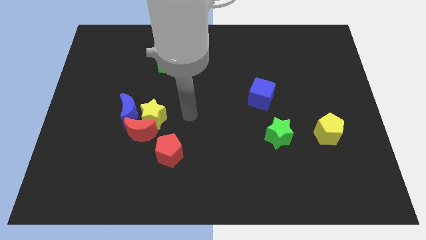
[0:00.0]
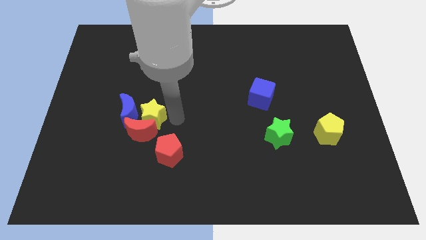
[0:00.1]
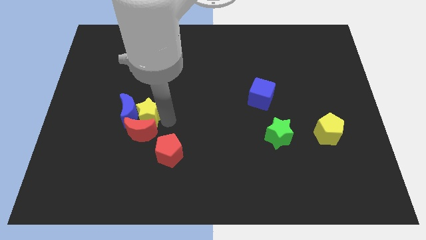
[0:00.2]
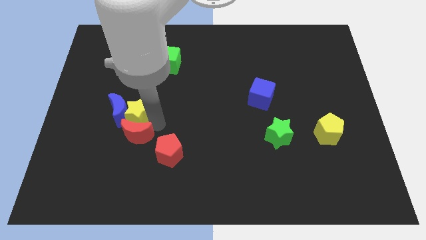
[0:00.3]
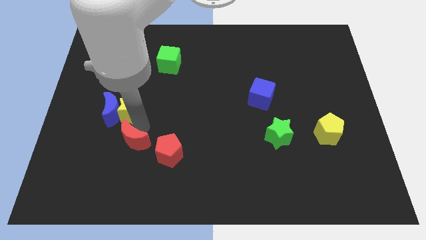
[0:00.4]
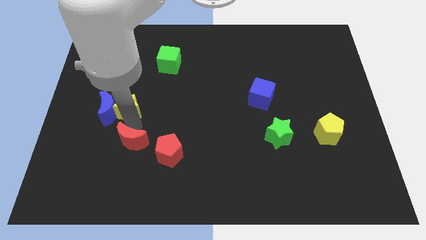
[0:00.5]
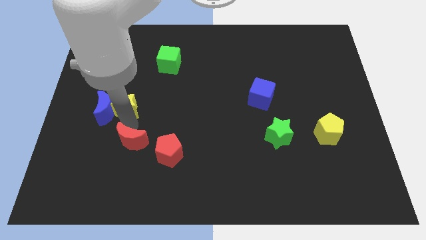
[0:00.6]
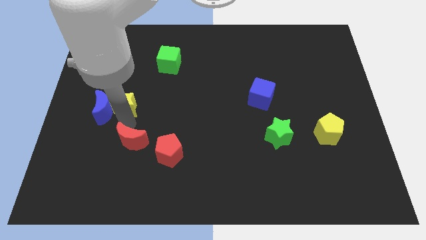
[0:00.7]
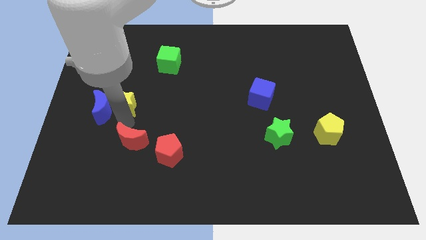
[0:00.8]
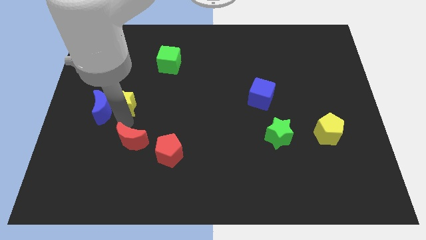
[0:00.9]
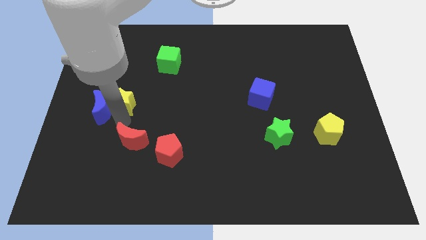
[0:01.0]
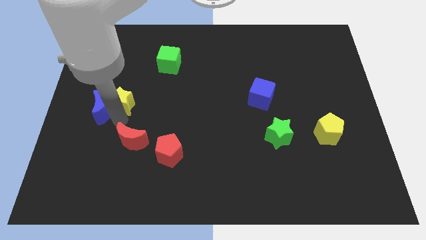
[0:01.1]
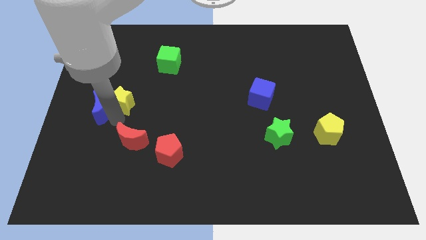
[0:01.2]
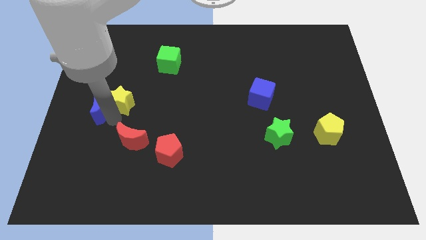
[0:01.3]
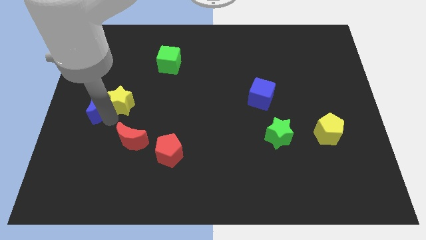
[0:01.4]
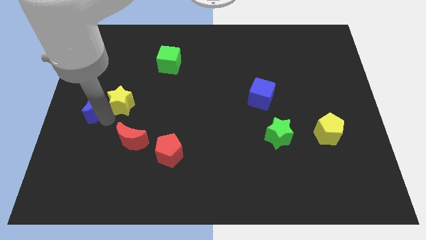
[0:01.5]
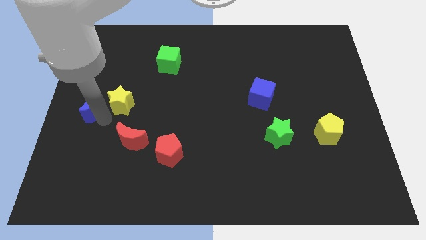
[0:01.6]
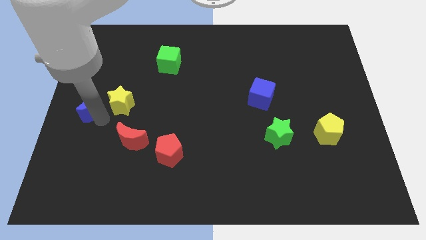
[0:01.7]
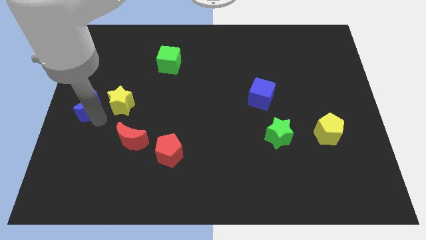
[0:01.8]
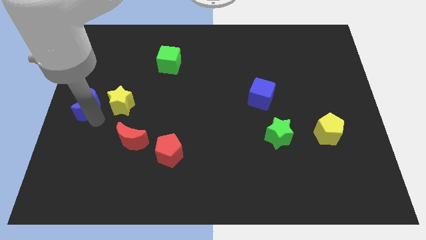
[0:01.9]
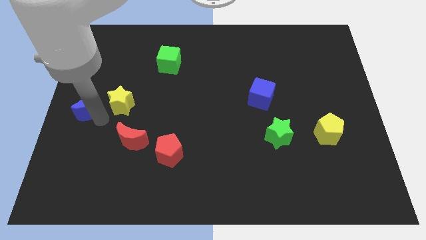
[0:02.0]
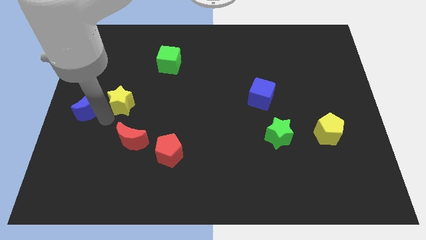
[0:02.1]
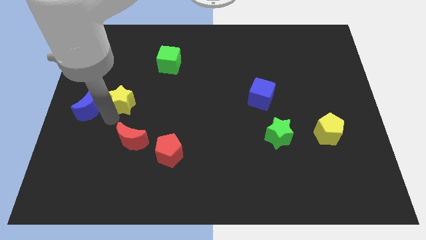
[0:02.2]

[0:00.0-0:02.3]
separate the blue moon from the yellow star and red moon

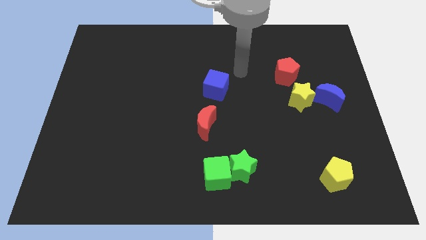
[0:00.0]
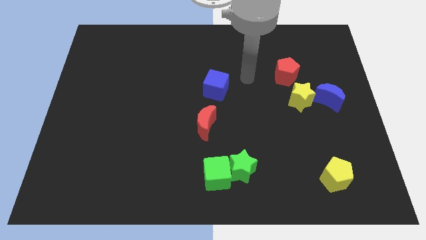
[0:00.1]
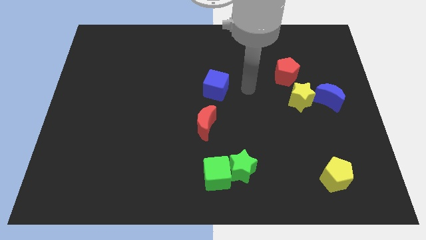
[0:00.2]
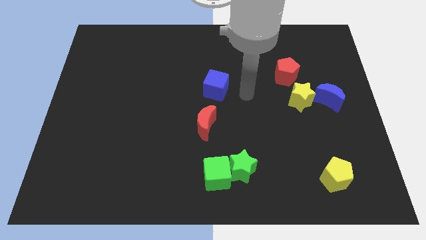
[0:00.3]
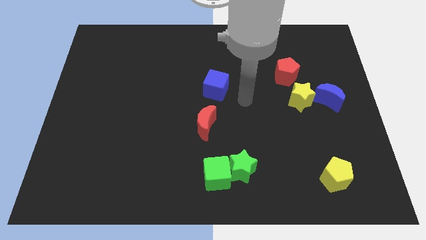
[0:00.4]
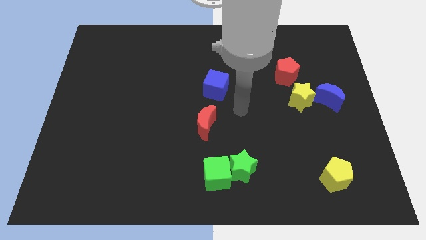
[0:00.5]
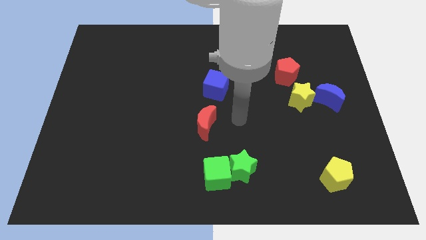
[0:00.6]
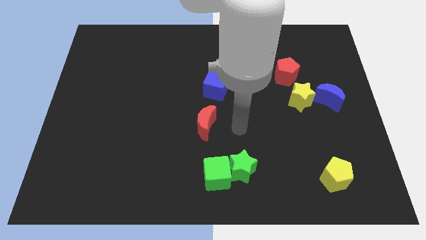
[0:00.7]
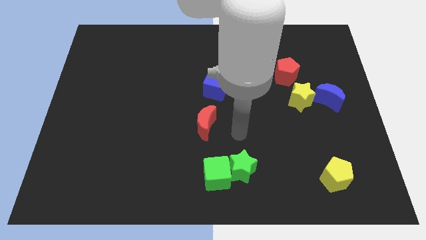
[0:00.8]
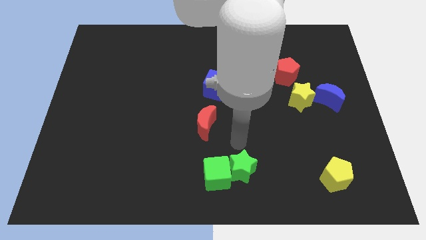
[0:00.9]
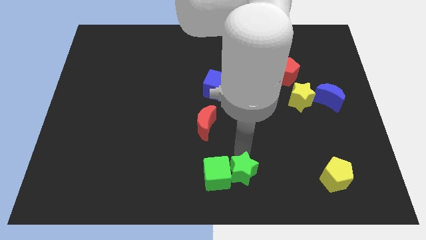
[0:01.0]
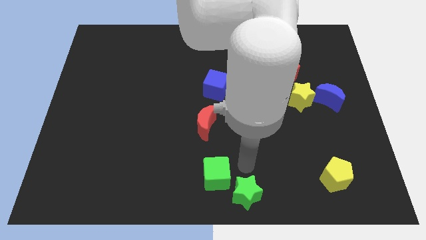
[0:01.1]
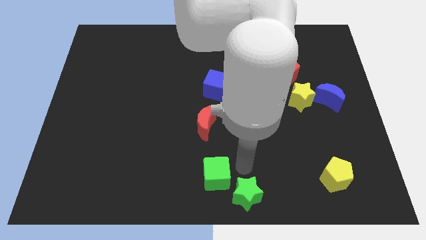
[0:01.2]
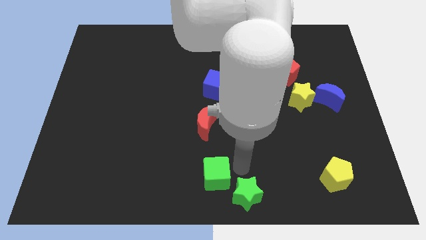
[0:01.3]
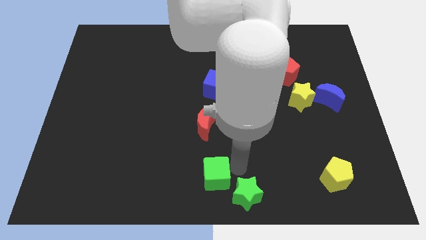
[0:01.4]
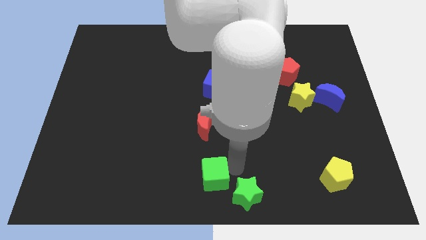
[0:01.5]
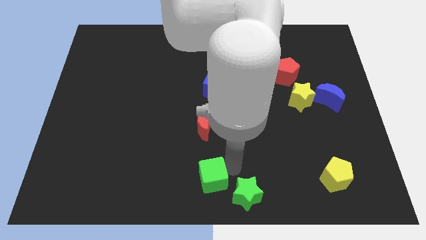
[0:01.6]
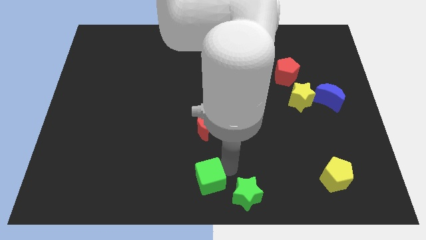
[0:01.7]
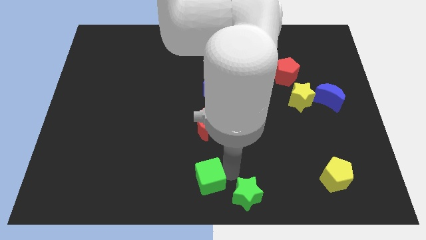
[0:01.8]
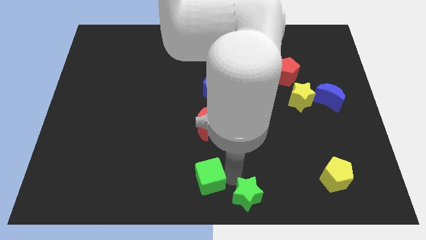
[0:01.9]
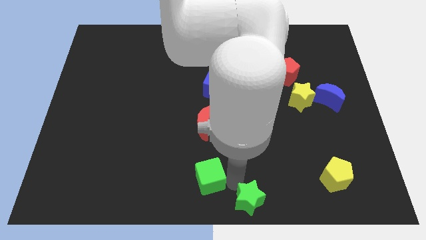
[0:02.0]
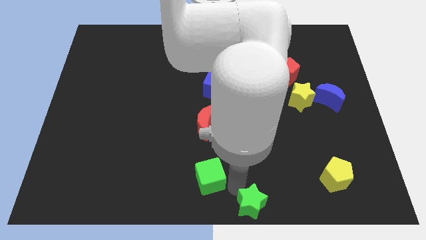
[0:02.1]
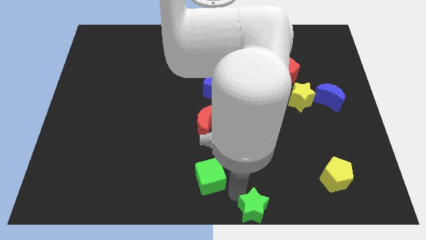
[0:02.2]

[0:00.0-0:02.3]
pull the green cube apart from the green star

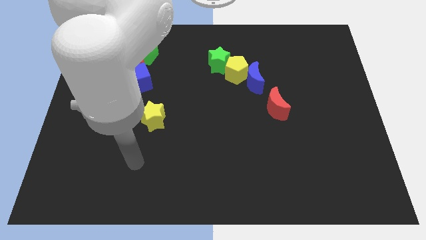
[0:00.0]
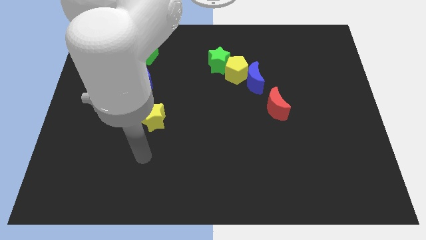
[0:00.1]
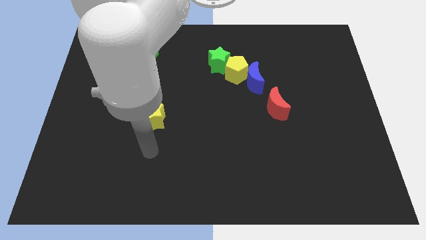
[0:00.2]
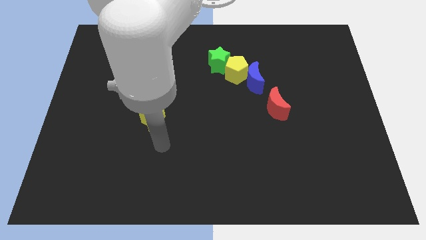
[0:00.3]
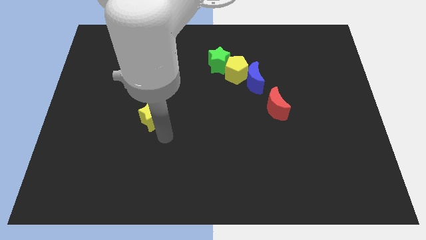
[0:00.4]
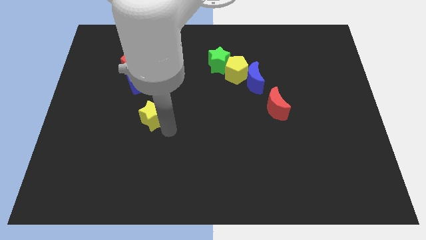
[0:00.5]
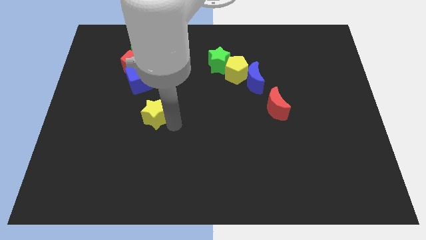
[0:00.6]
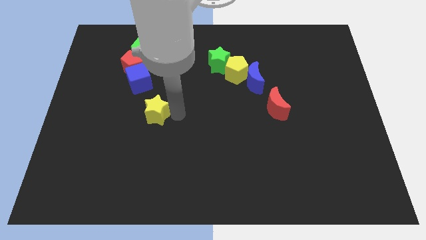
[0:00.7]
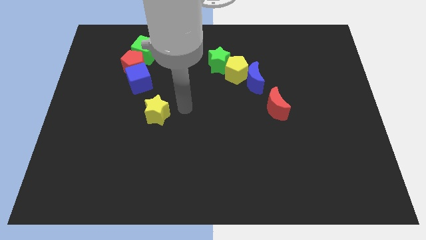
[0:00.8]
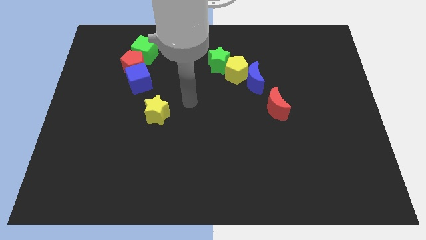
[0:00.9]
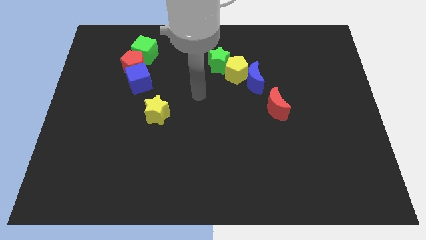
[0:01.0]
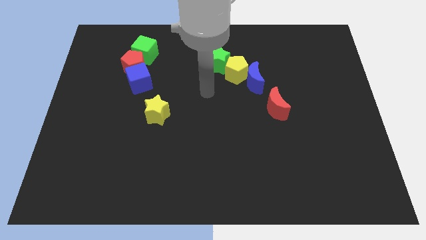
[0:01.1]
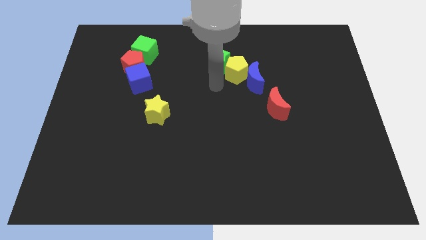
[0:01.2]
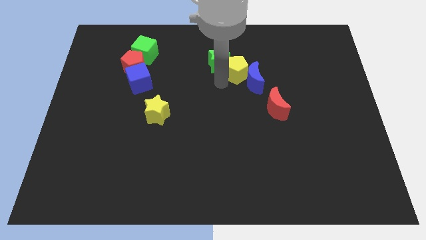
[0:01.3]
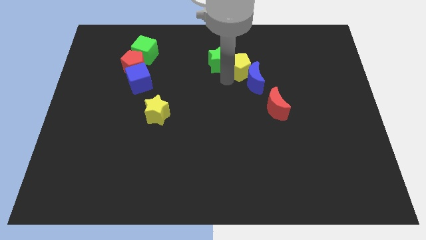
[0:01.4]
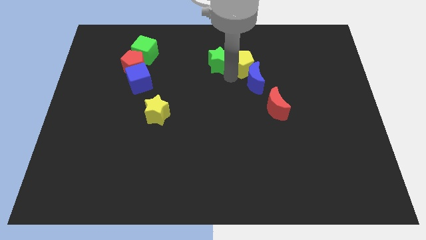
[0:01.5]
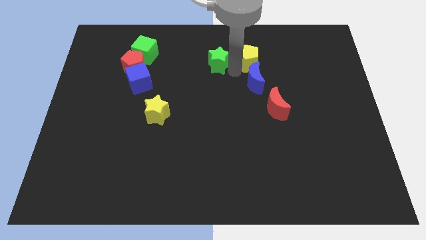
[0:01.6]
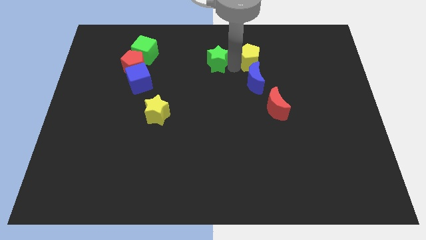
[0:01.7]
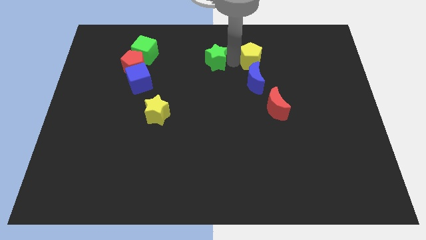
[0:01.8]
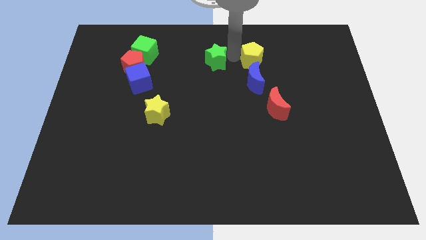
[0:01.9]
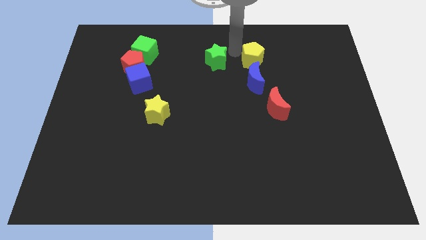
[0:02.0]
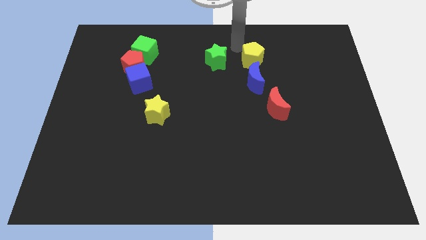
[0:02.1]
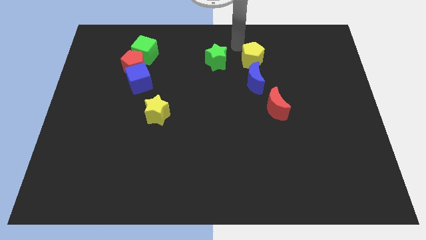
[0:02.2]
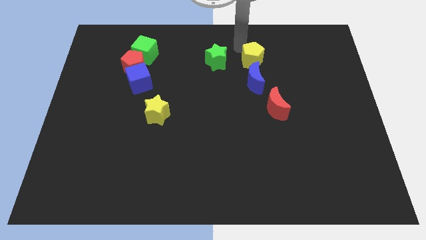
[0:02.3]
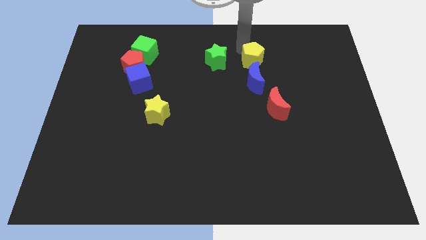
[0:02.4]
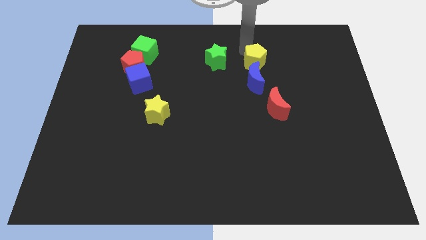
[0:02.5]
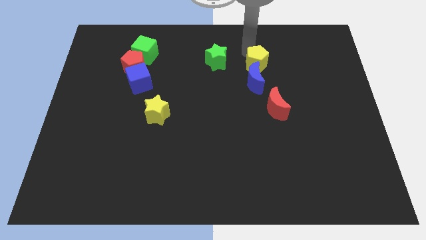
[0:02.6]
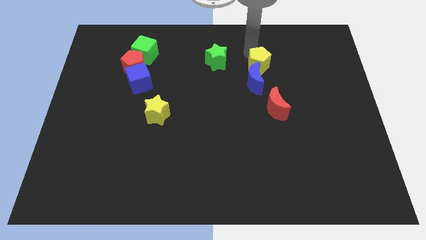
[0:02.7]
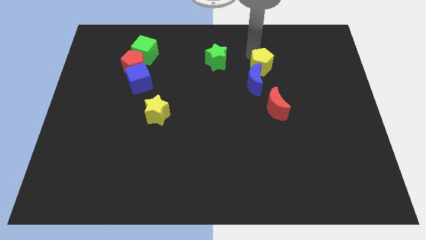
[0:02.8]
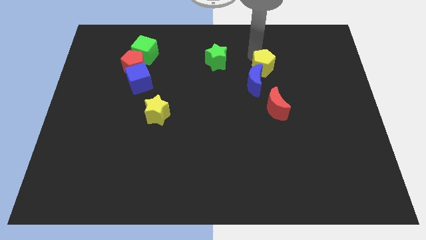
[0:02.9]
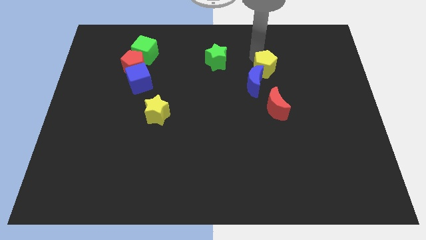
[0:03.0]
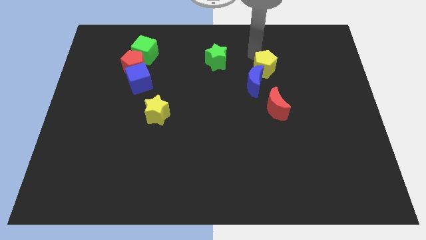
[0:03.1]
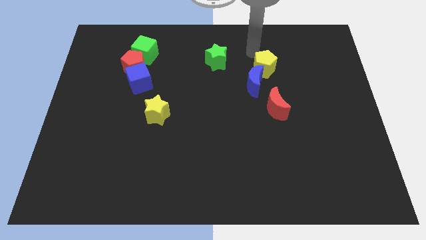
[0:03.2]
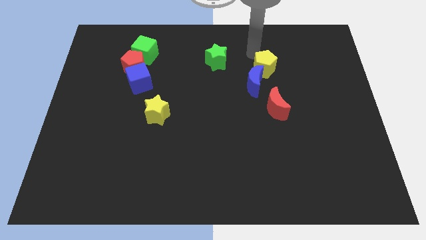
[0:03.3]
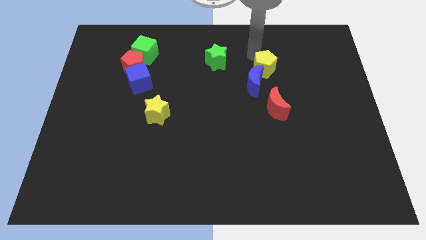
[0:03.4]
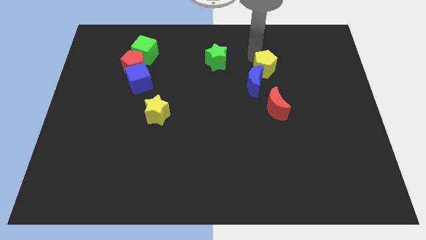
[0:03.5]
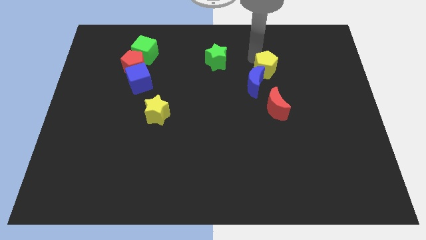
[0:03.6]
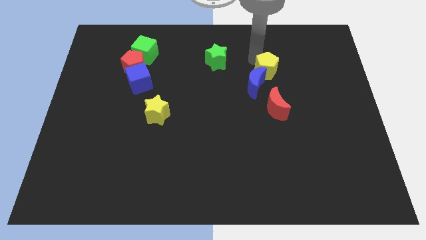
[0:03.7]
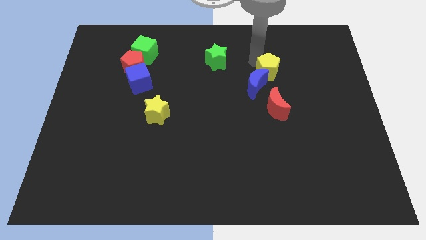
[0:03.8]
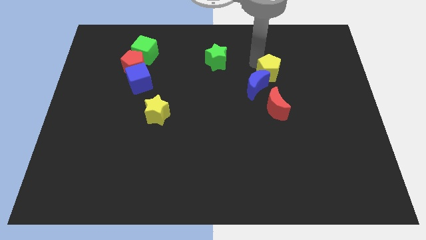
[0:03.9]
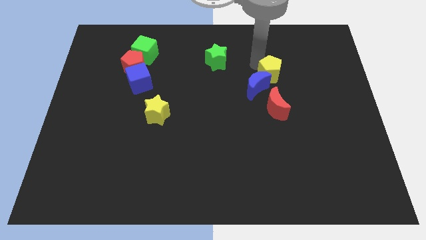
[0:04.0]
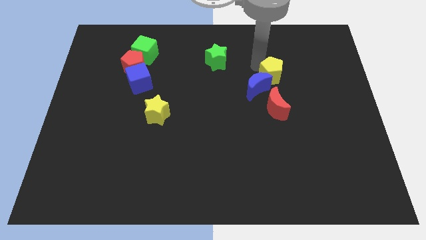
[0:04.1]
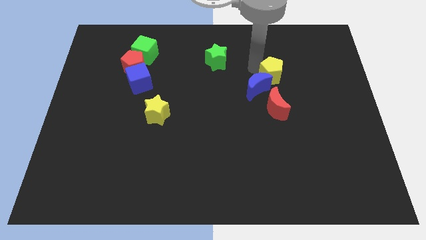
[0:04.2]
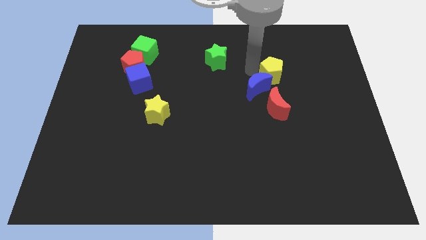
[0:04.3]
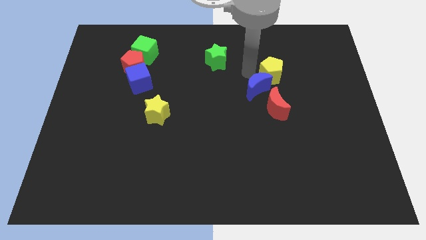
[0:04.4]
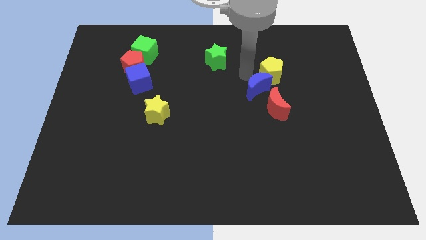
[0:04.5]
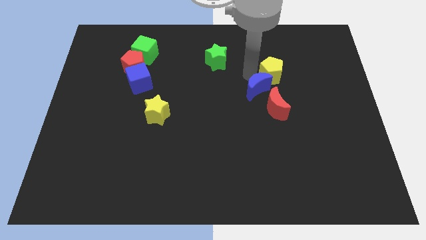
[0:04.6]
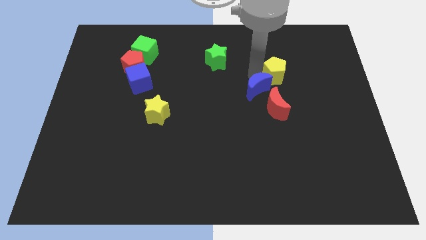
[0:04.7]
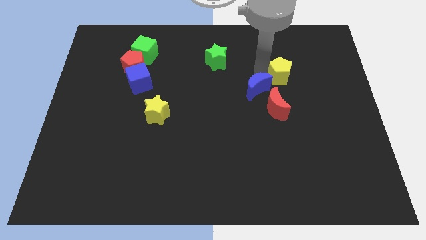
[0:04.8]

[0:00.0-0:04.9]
separate the yellow pentagon from the blue moon and green star
